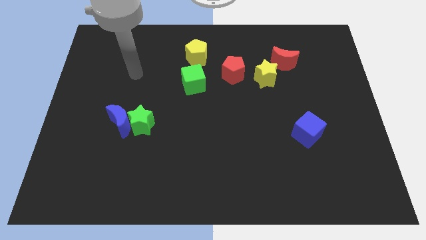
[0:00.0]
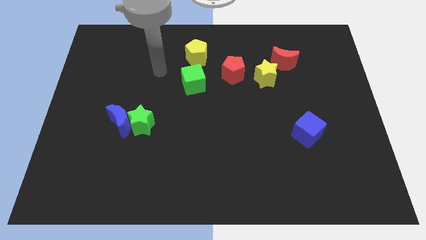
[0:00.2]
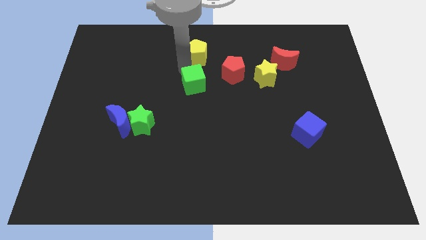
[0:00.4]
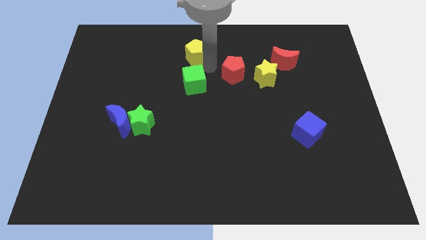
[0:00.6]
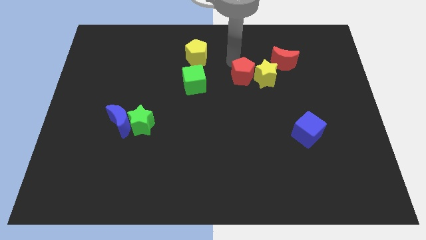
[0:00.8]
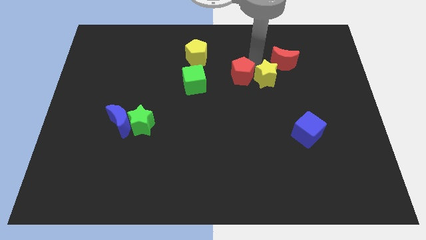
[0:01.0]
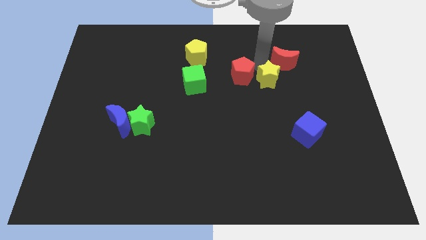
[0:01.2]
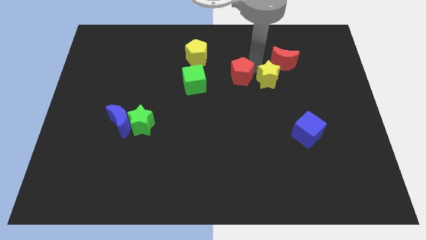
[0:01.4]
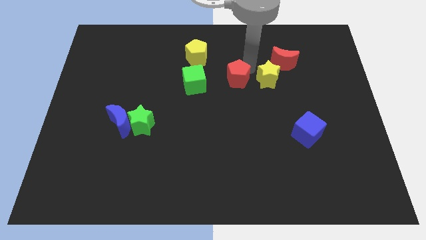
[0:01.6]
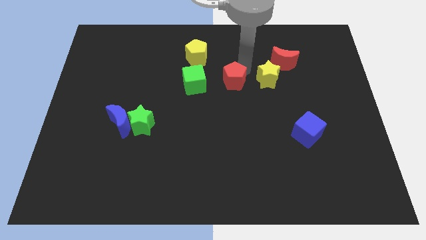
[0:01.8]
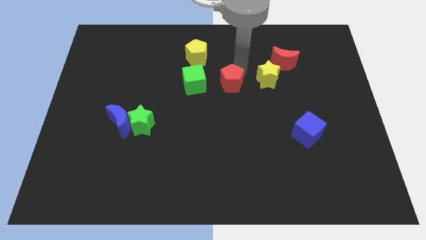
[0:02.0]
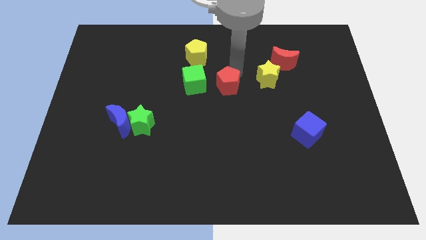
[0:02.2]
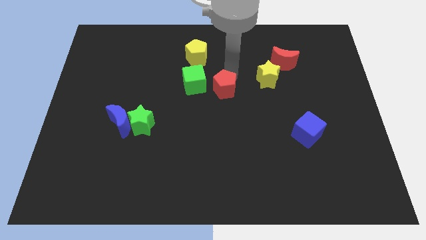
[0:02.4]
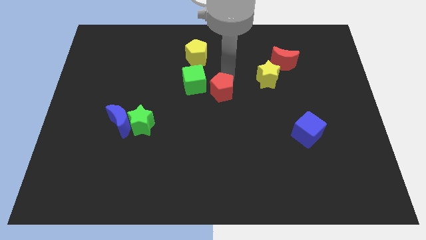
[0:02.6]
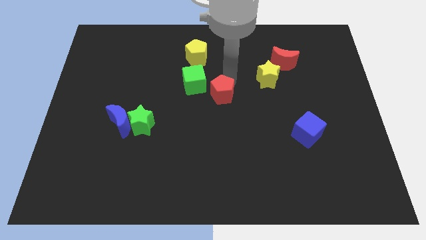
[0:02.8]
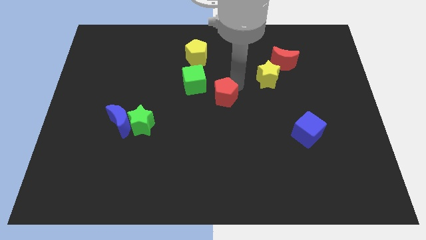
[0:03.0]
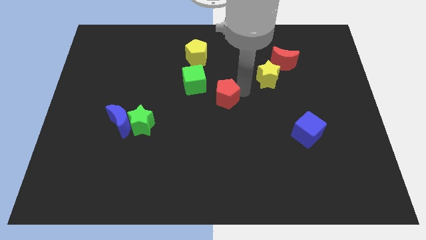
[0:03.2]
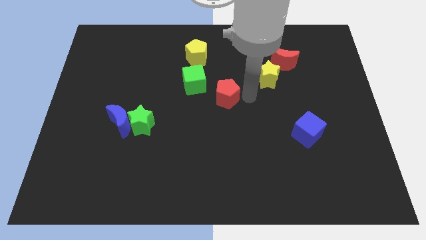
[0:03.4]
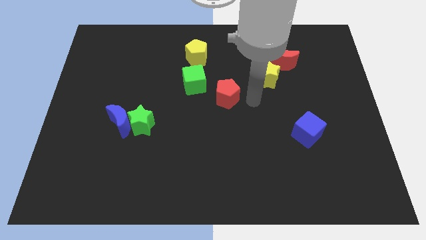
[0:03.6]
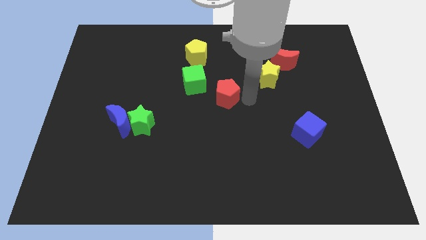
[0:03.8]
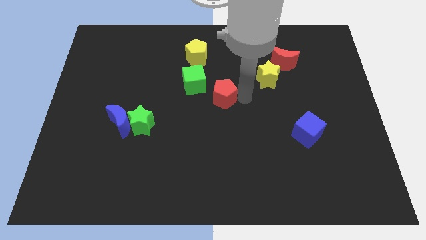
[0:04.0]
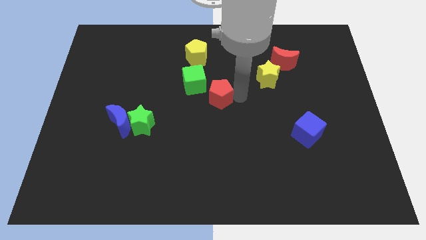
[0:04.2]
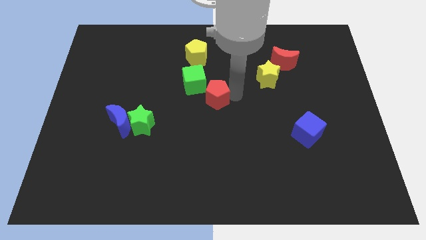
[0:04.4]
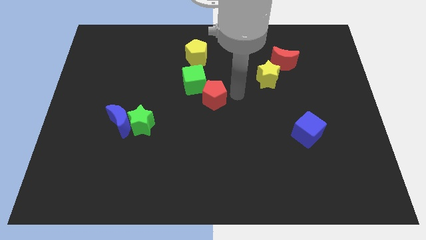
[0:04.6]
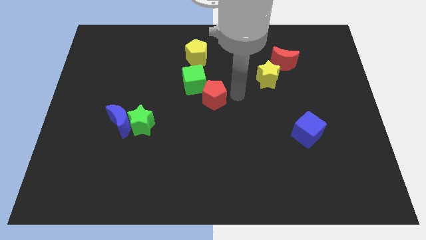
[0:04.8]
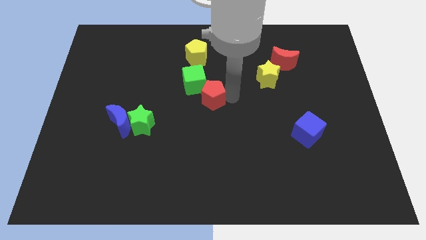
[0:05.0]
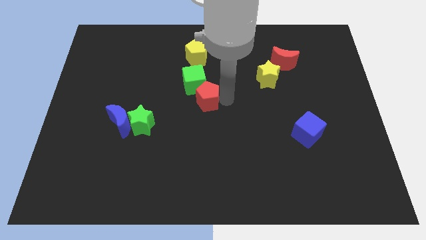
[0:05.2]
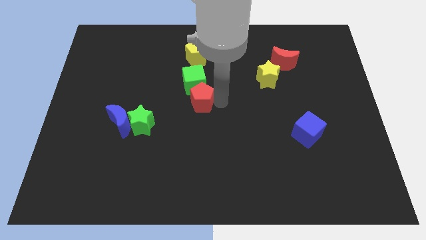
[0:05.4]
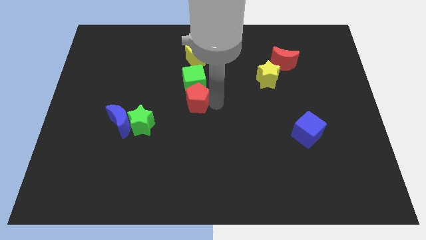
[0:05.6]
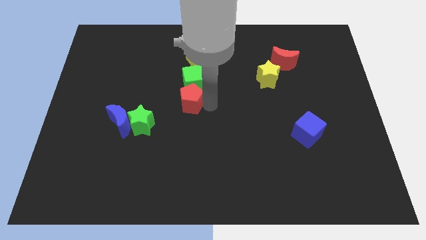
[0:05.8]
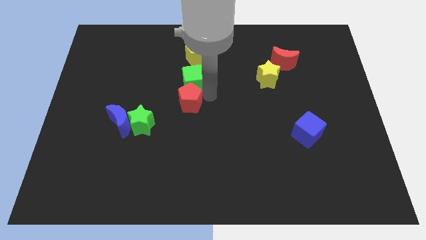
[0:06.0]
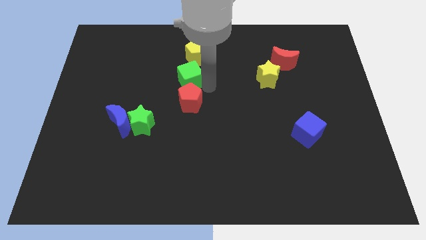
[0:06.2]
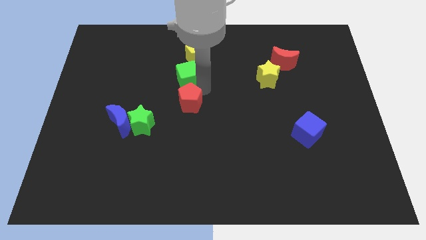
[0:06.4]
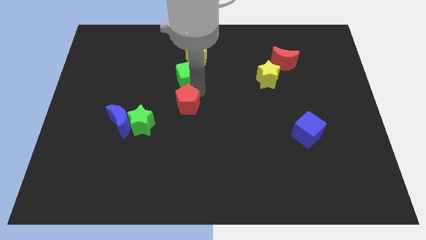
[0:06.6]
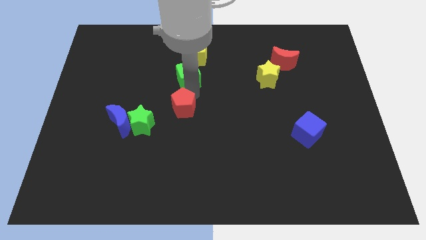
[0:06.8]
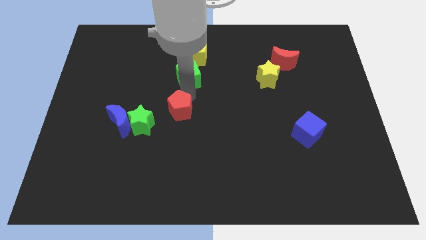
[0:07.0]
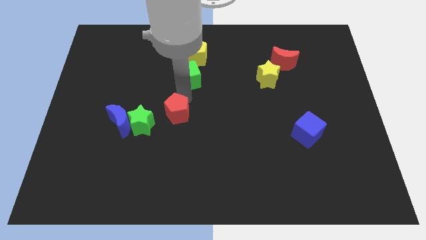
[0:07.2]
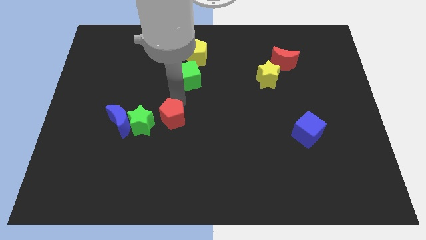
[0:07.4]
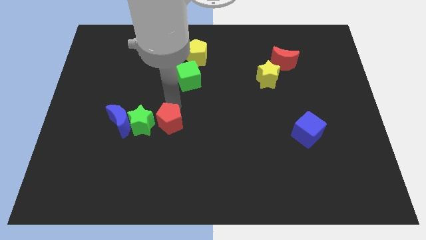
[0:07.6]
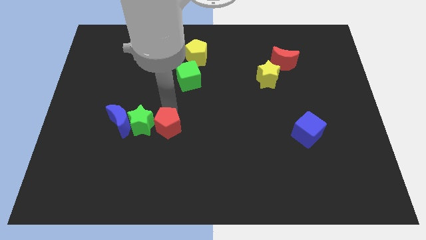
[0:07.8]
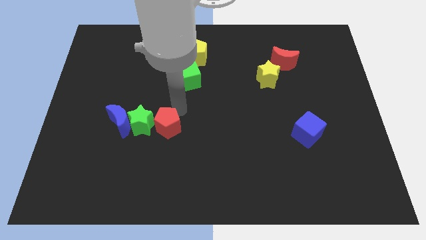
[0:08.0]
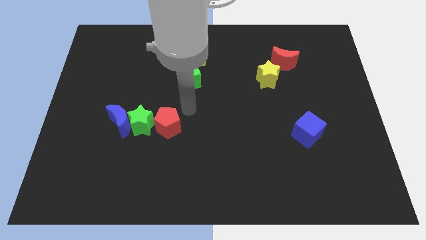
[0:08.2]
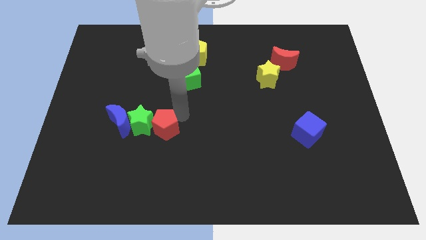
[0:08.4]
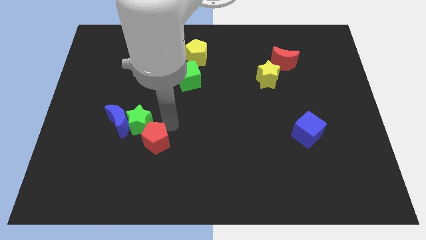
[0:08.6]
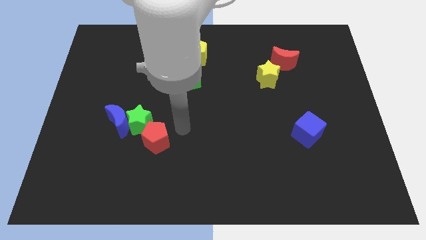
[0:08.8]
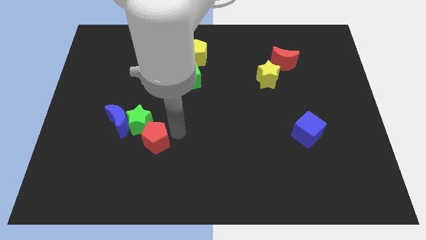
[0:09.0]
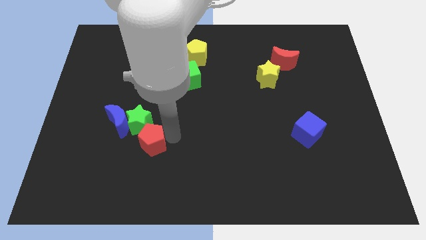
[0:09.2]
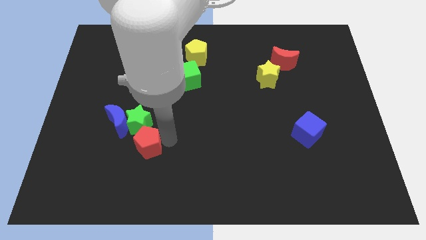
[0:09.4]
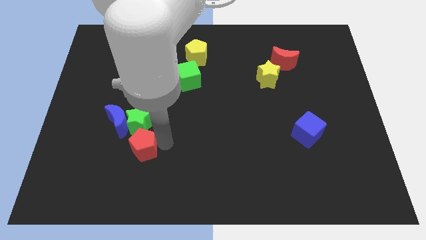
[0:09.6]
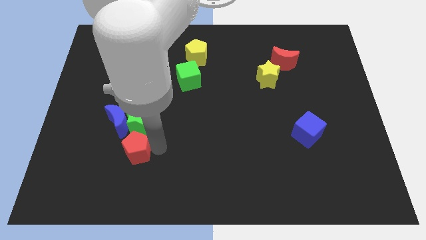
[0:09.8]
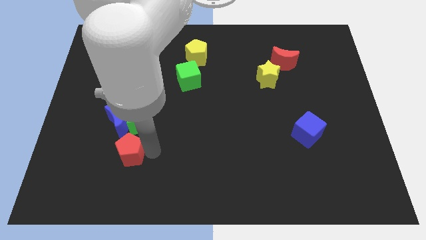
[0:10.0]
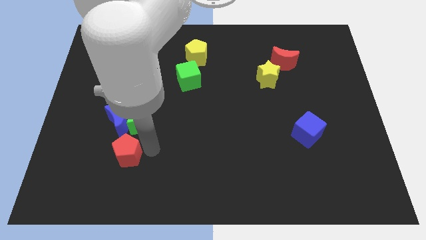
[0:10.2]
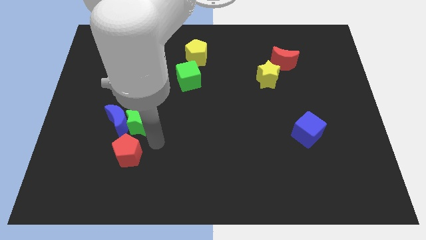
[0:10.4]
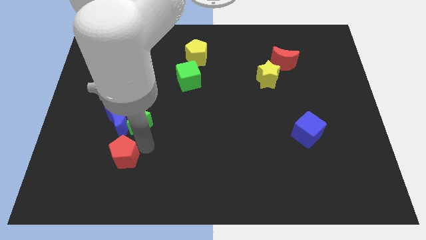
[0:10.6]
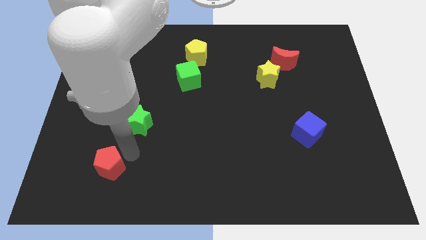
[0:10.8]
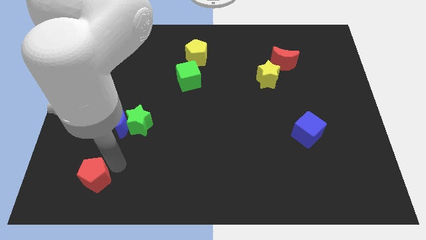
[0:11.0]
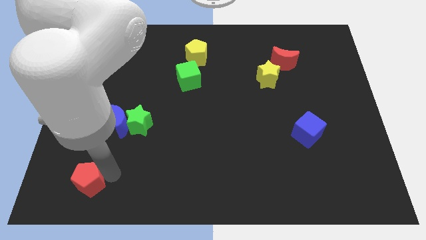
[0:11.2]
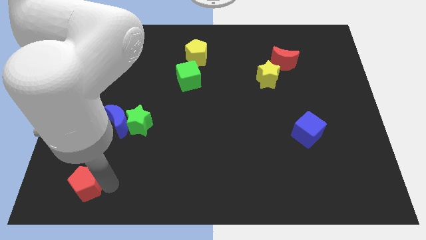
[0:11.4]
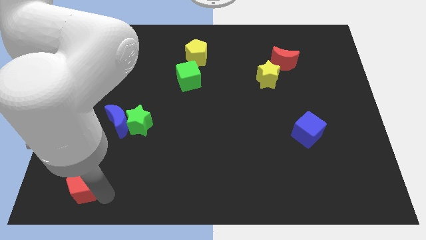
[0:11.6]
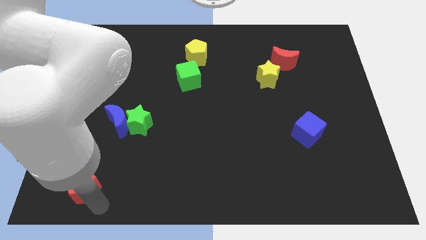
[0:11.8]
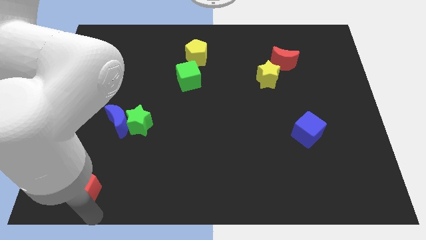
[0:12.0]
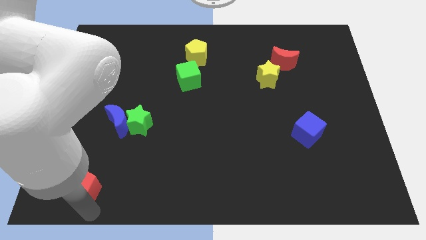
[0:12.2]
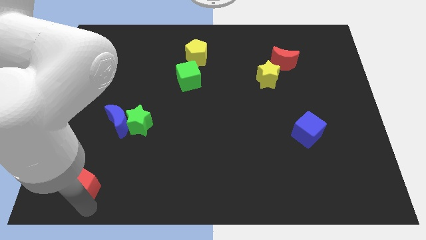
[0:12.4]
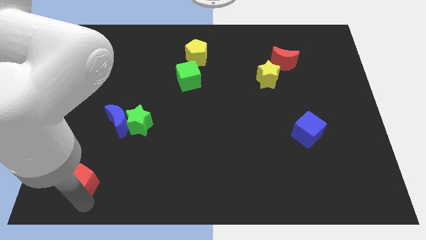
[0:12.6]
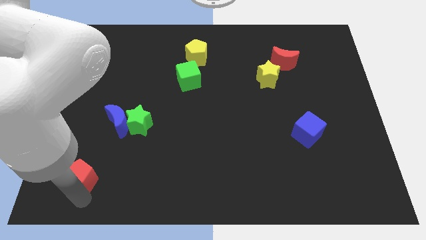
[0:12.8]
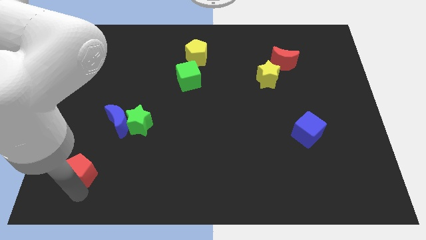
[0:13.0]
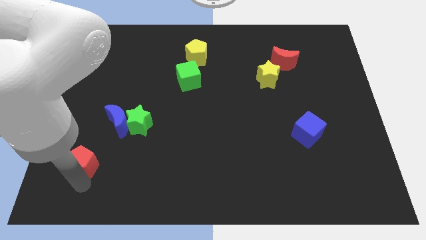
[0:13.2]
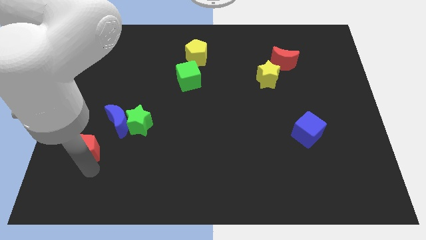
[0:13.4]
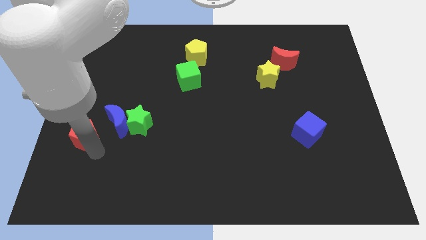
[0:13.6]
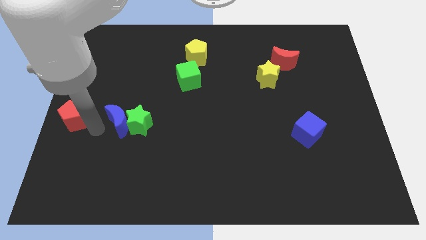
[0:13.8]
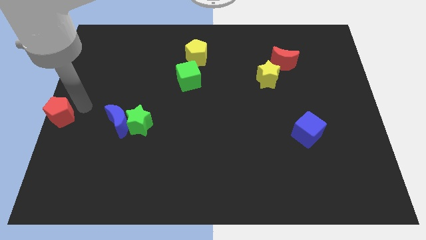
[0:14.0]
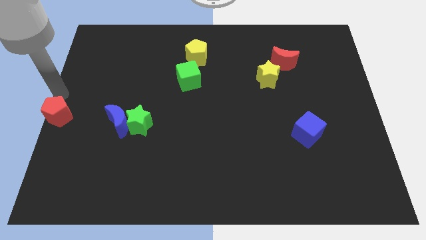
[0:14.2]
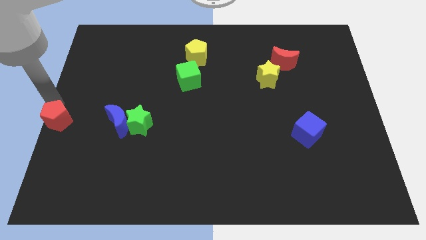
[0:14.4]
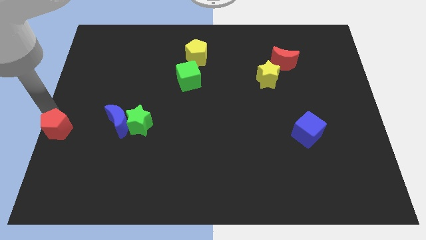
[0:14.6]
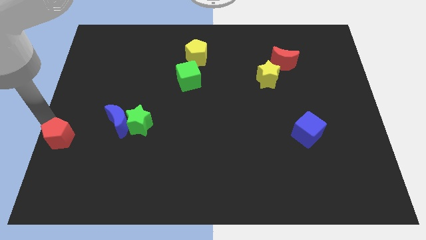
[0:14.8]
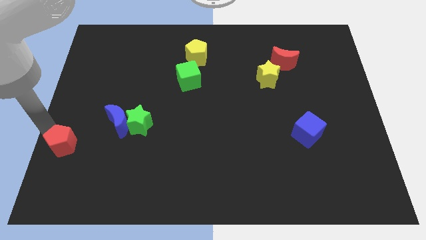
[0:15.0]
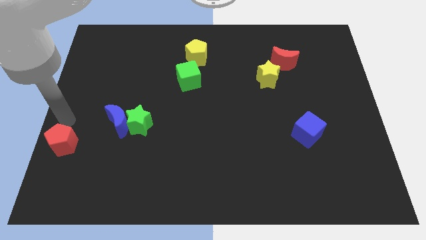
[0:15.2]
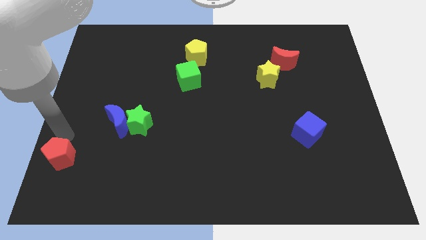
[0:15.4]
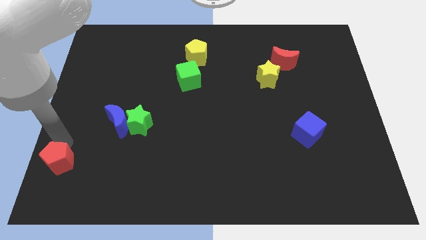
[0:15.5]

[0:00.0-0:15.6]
push the red pentagon to the lower left corner
